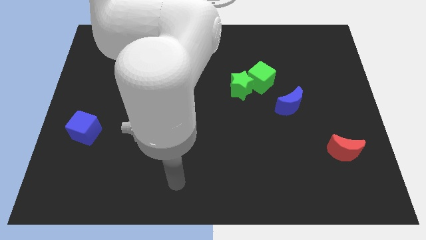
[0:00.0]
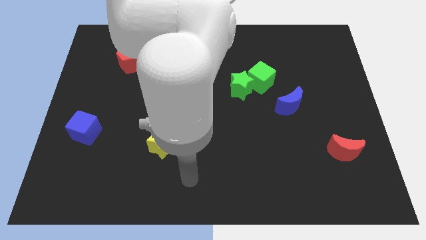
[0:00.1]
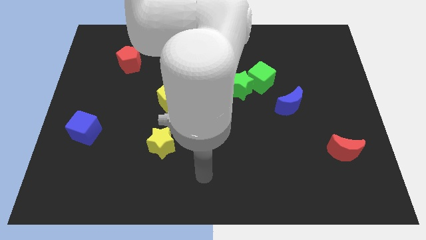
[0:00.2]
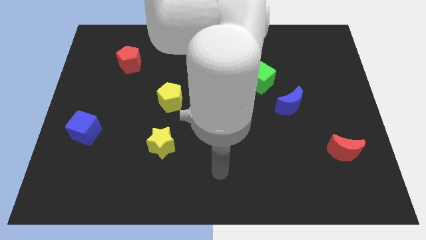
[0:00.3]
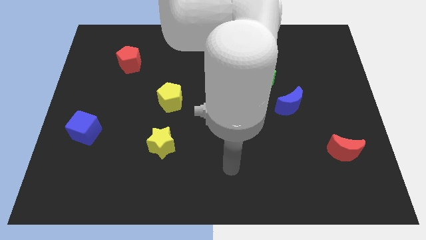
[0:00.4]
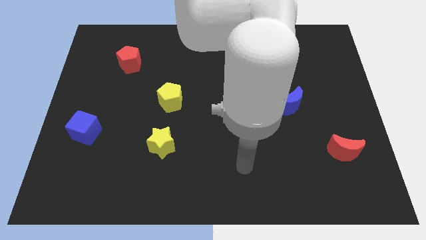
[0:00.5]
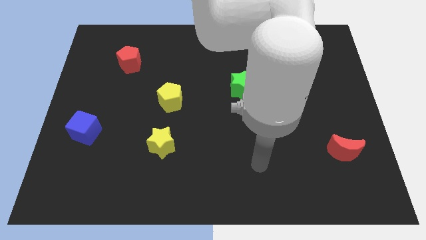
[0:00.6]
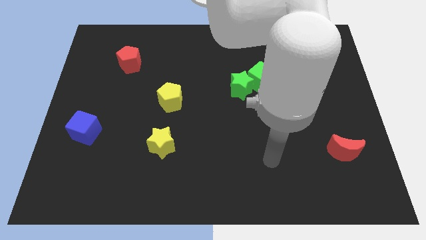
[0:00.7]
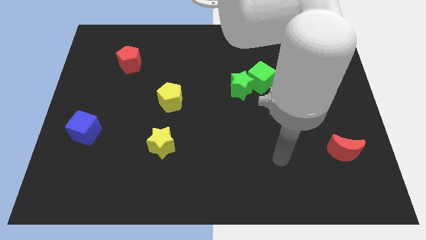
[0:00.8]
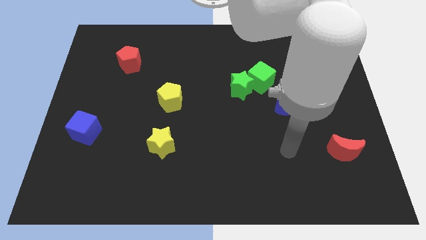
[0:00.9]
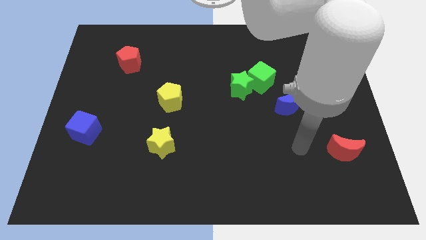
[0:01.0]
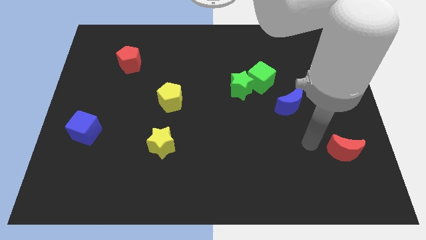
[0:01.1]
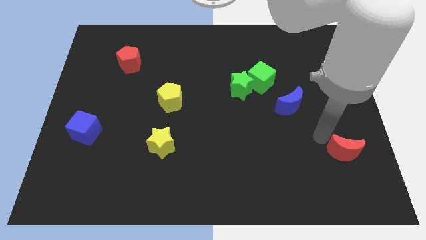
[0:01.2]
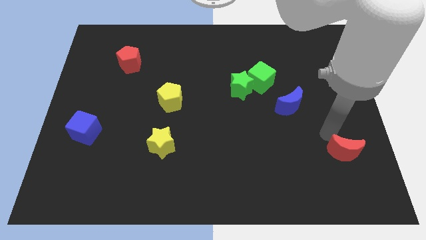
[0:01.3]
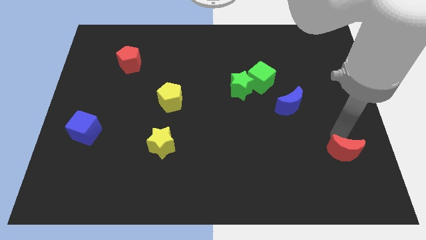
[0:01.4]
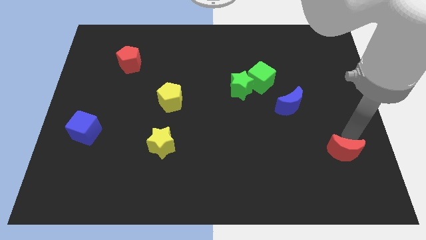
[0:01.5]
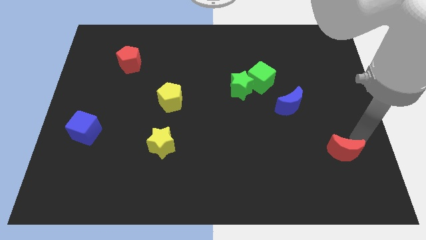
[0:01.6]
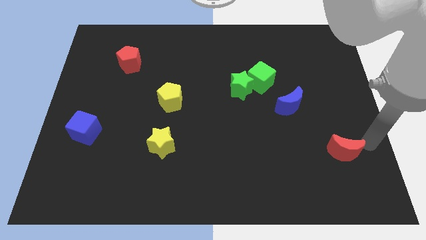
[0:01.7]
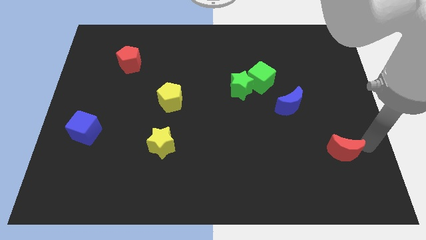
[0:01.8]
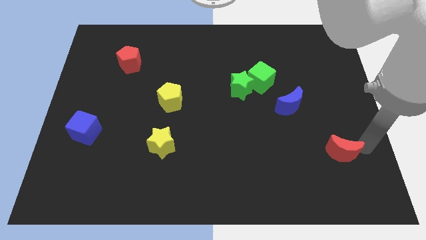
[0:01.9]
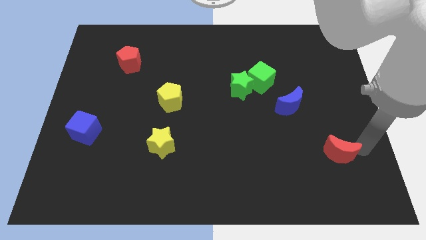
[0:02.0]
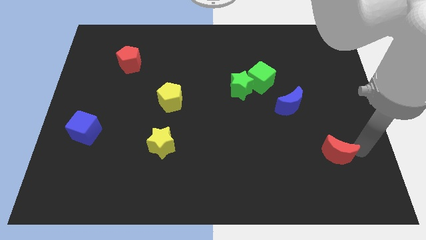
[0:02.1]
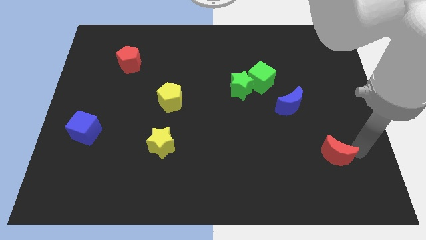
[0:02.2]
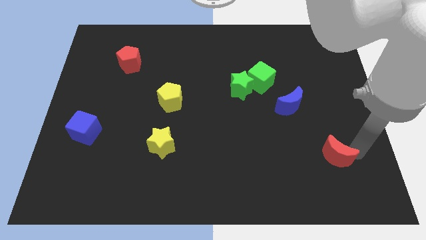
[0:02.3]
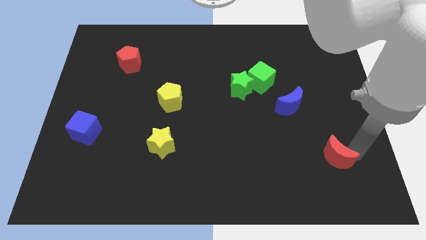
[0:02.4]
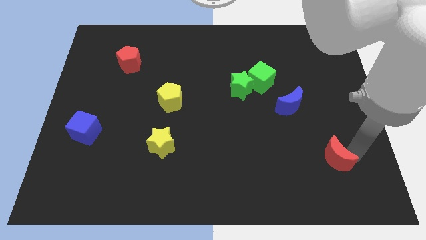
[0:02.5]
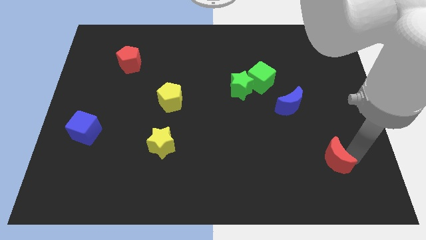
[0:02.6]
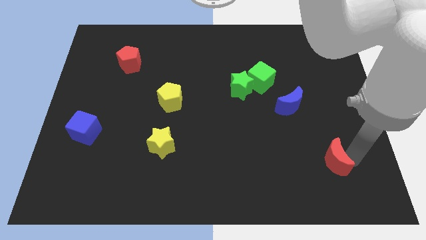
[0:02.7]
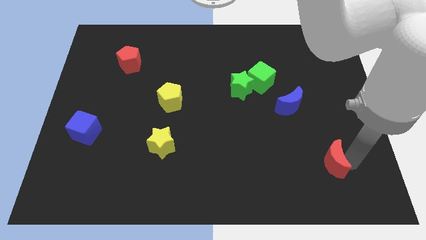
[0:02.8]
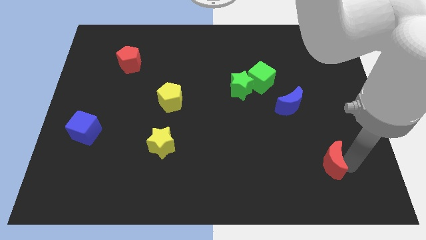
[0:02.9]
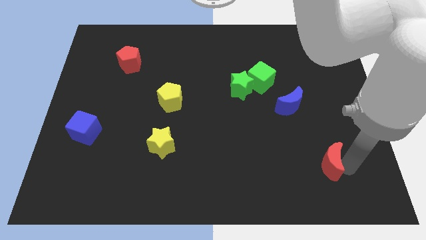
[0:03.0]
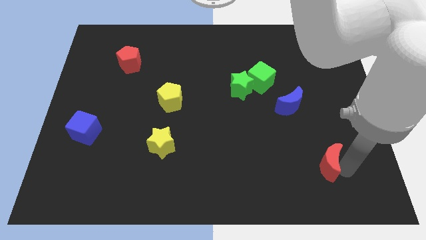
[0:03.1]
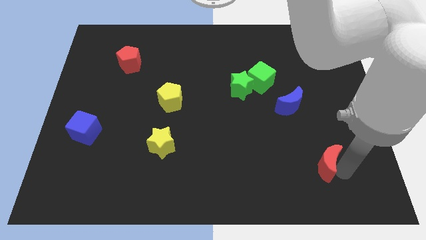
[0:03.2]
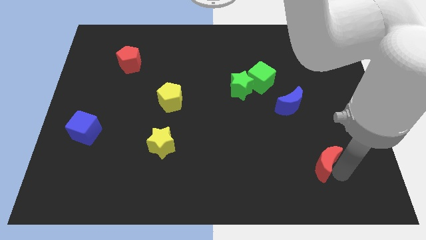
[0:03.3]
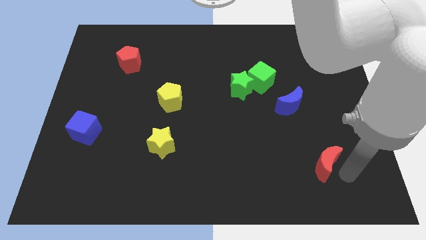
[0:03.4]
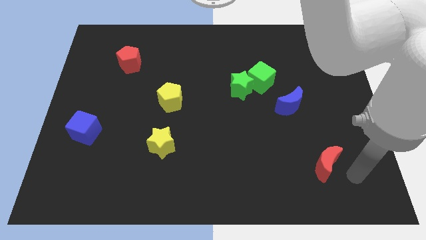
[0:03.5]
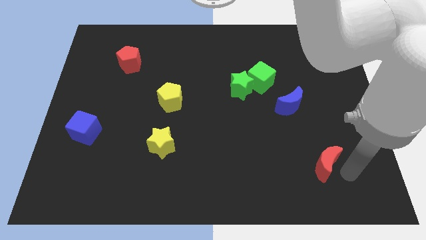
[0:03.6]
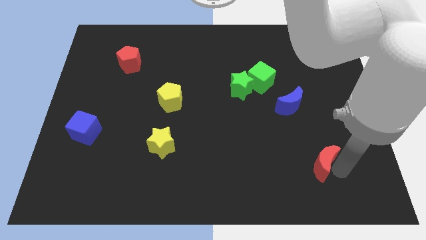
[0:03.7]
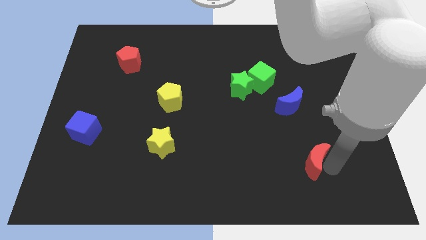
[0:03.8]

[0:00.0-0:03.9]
slightly slide the red moon to the left

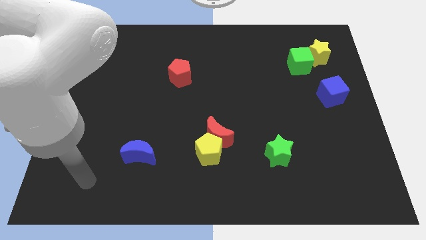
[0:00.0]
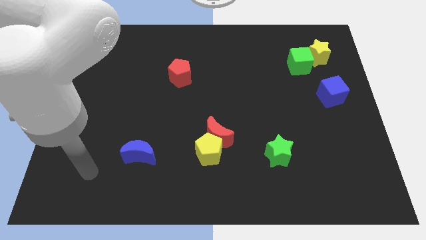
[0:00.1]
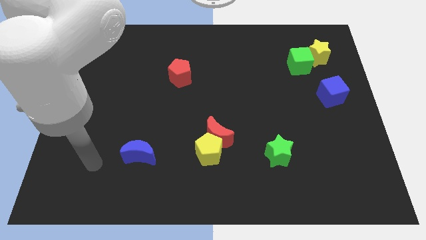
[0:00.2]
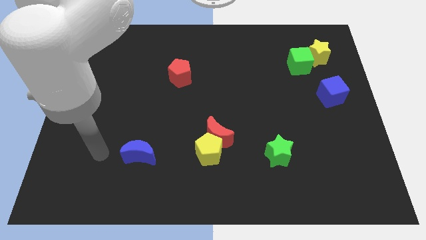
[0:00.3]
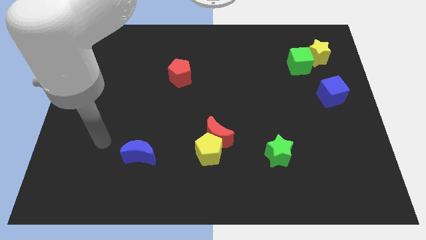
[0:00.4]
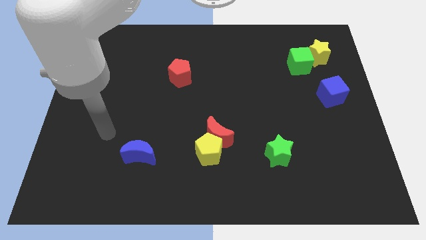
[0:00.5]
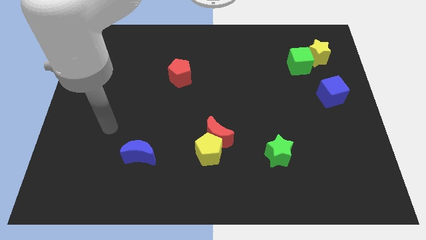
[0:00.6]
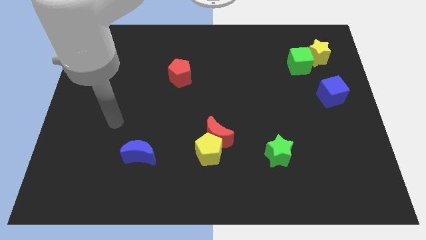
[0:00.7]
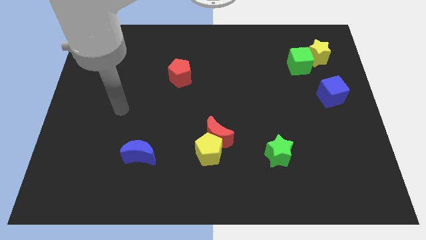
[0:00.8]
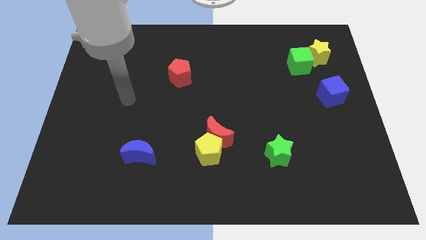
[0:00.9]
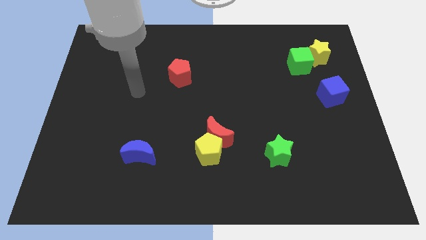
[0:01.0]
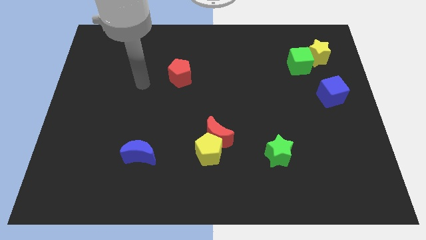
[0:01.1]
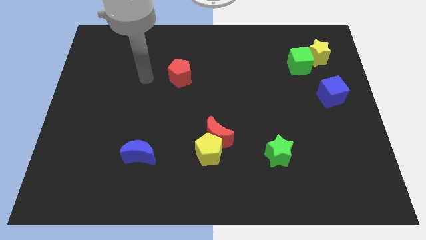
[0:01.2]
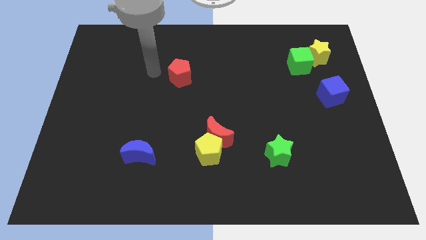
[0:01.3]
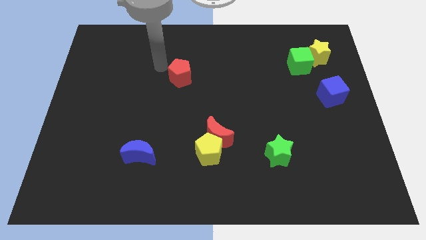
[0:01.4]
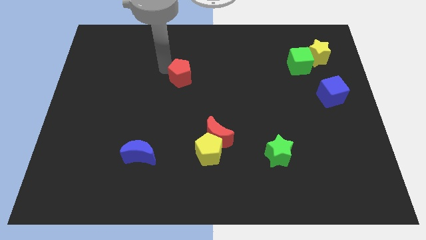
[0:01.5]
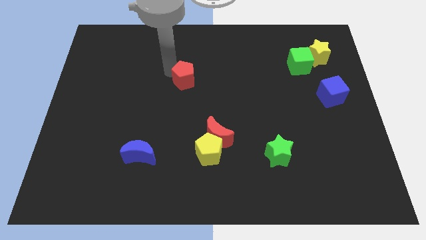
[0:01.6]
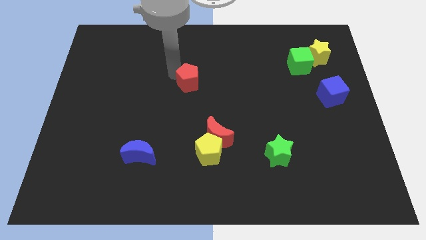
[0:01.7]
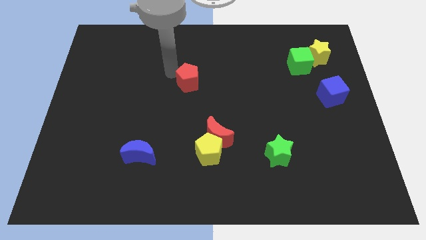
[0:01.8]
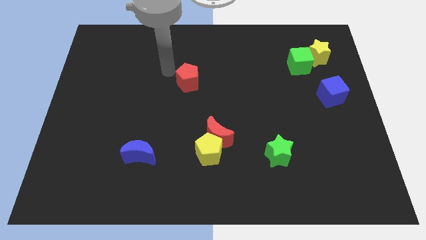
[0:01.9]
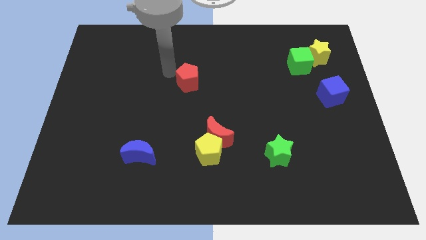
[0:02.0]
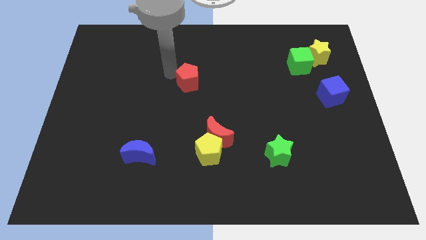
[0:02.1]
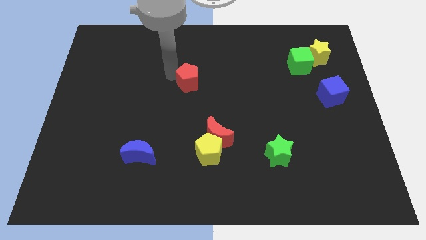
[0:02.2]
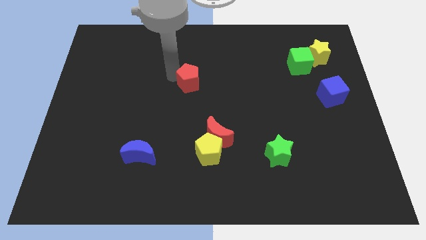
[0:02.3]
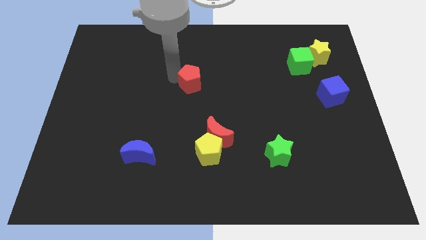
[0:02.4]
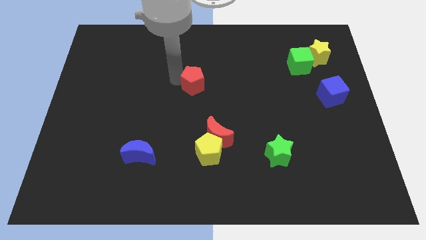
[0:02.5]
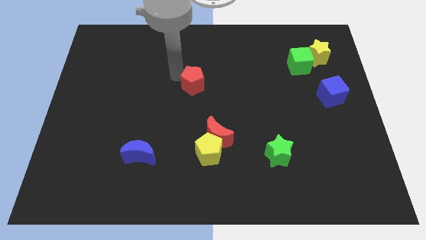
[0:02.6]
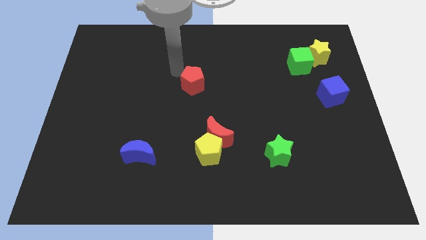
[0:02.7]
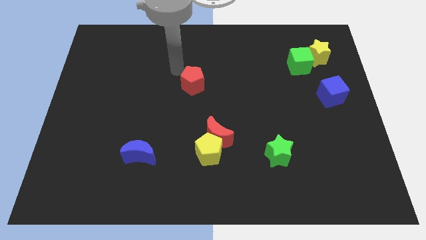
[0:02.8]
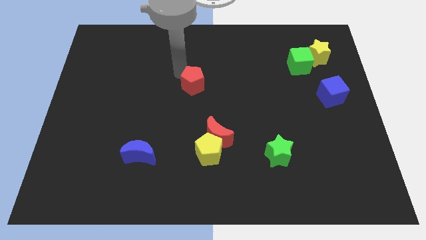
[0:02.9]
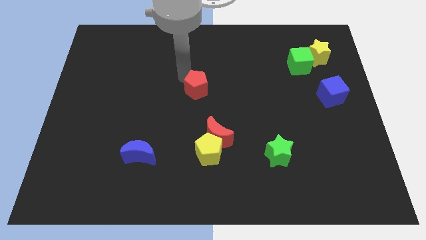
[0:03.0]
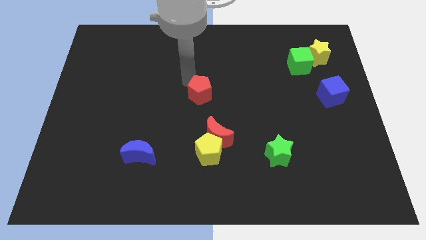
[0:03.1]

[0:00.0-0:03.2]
push the red pentagon downwards and then to the right a little
